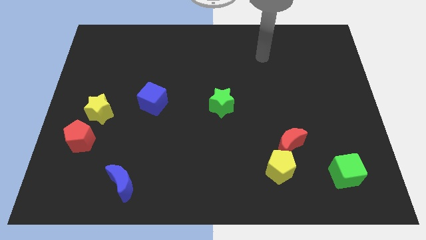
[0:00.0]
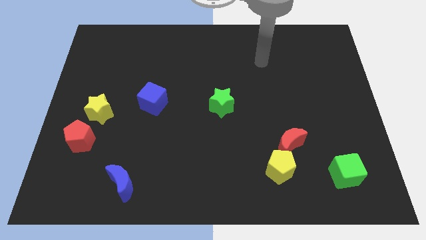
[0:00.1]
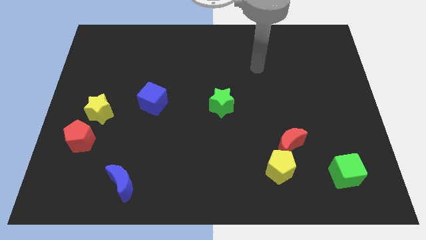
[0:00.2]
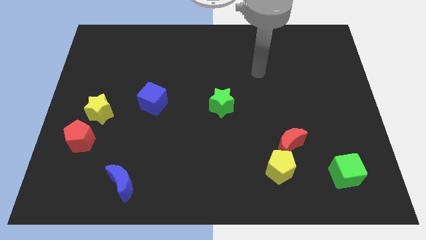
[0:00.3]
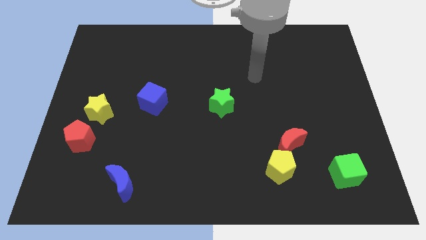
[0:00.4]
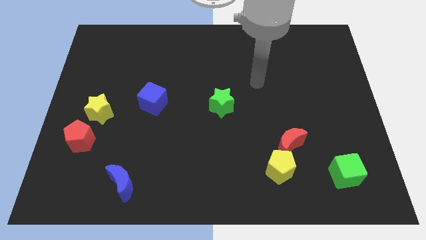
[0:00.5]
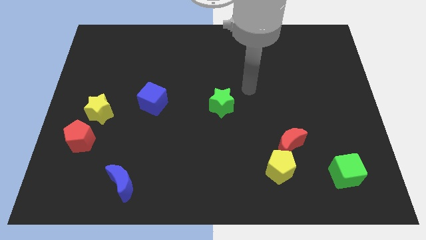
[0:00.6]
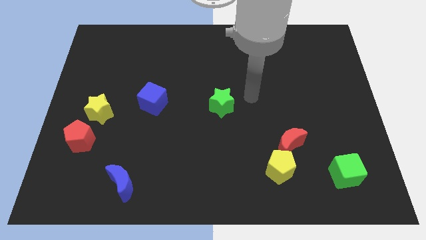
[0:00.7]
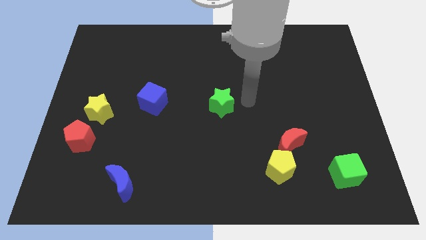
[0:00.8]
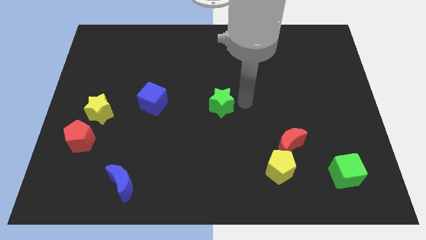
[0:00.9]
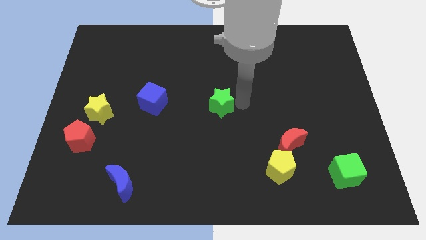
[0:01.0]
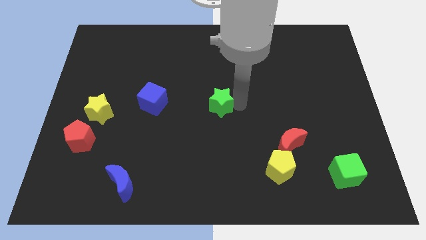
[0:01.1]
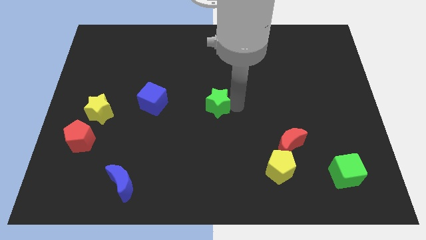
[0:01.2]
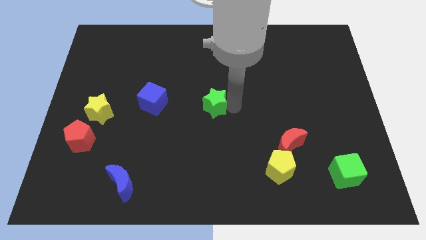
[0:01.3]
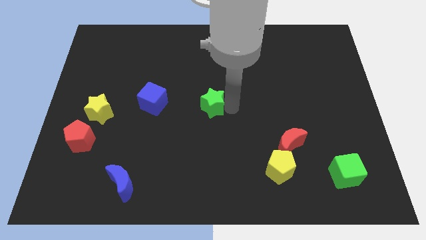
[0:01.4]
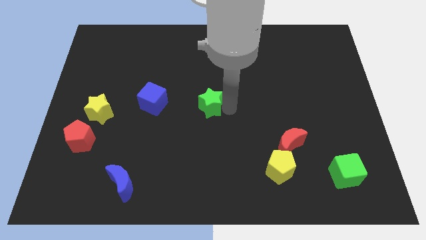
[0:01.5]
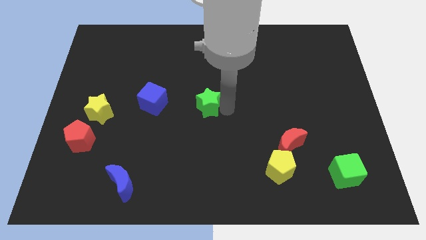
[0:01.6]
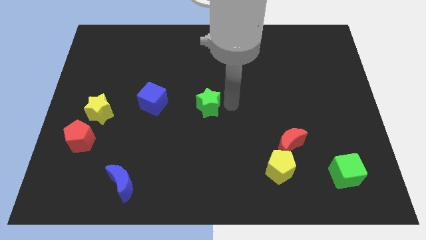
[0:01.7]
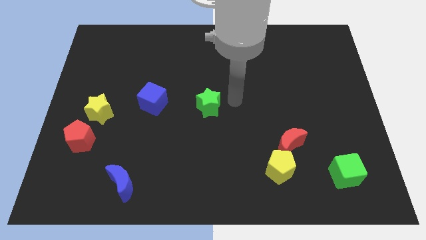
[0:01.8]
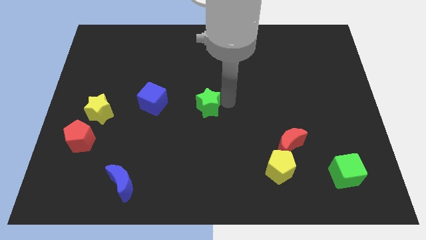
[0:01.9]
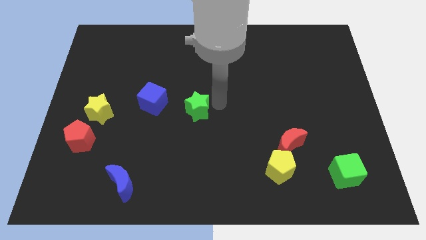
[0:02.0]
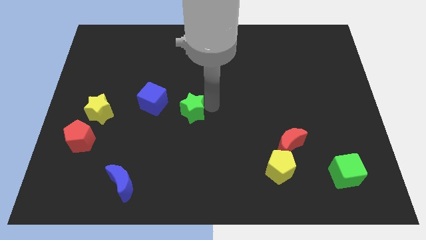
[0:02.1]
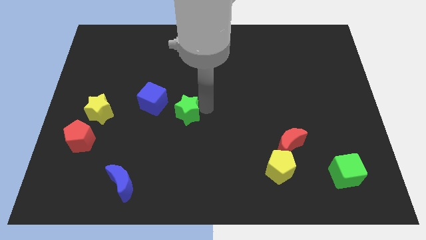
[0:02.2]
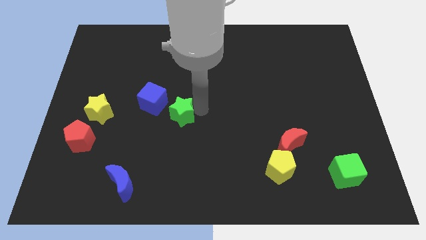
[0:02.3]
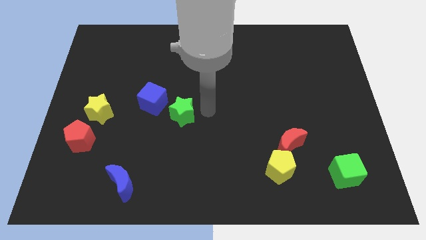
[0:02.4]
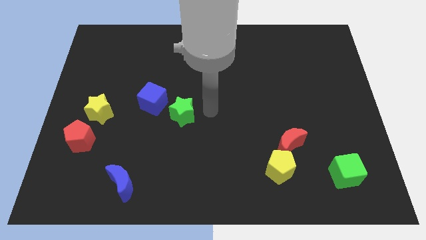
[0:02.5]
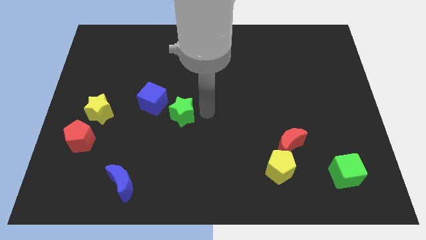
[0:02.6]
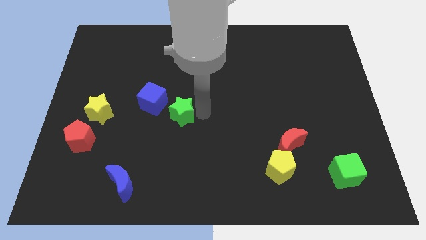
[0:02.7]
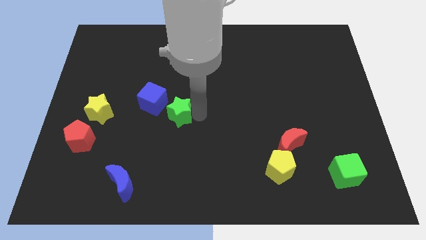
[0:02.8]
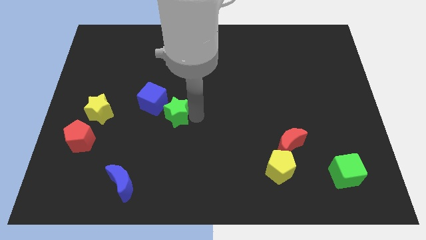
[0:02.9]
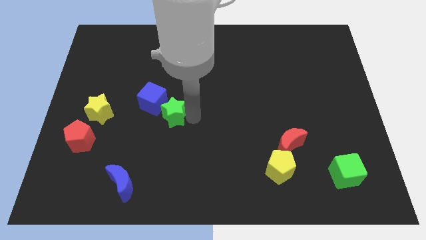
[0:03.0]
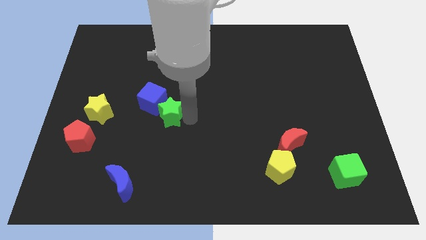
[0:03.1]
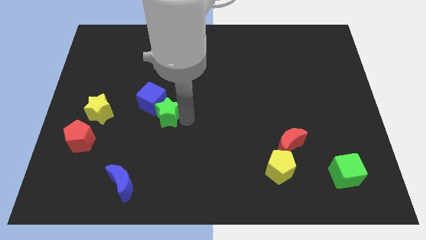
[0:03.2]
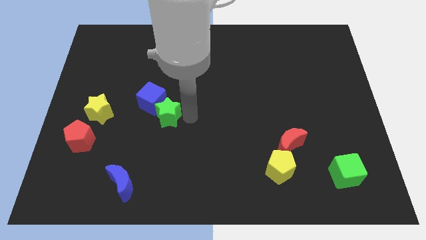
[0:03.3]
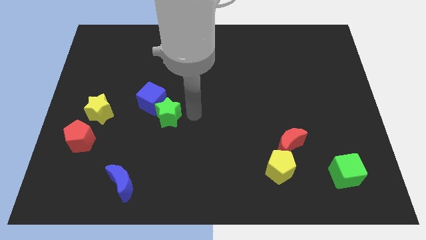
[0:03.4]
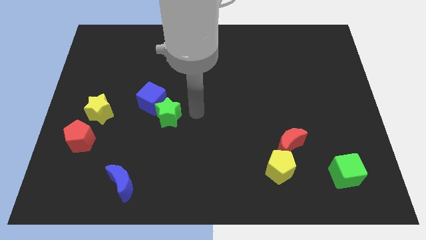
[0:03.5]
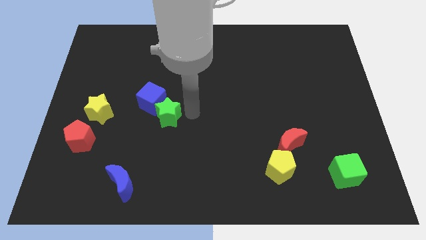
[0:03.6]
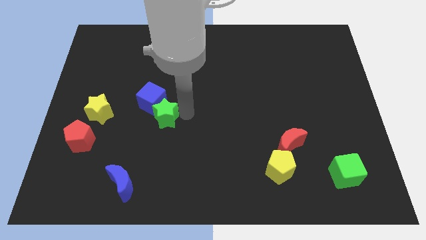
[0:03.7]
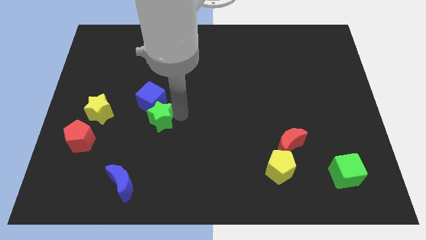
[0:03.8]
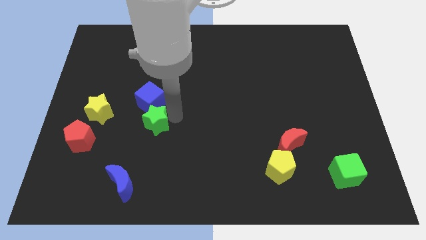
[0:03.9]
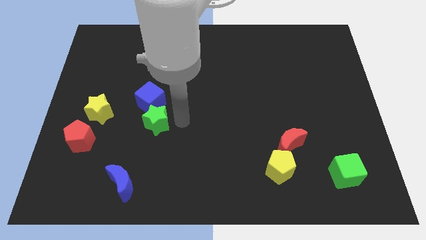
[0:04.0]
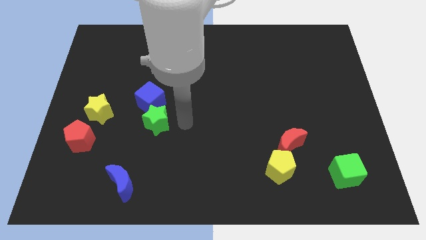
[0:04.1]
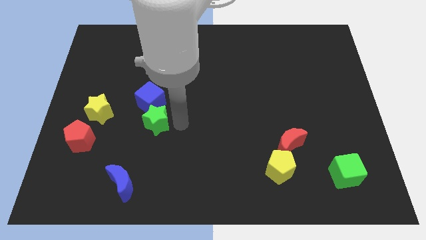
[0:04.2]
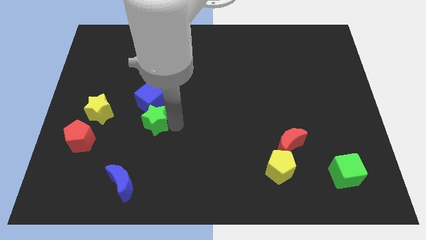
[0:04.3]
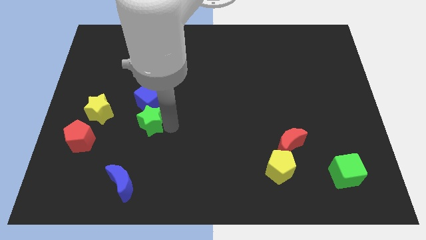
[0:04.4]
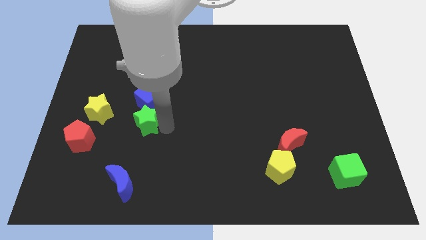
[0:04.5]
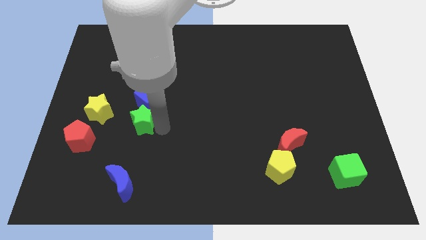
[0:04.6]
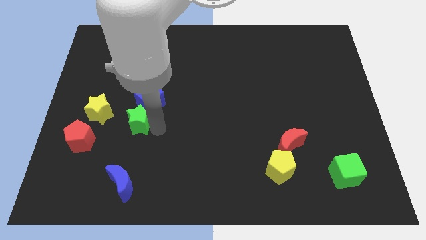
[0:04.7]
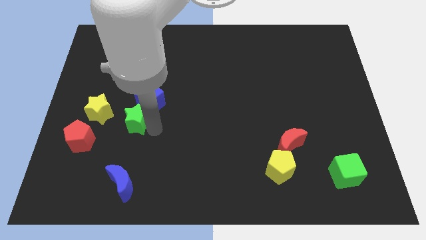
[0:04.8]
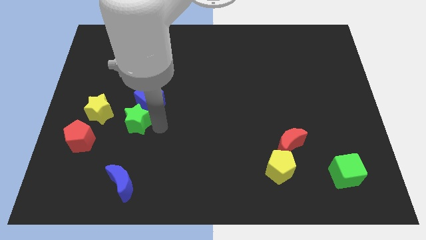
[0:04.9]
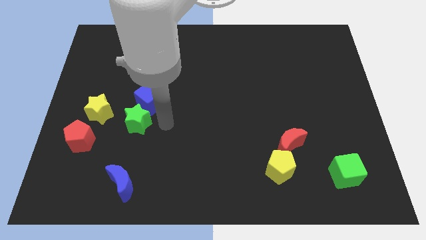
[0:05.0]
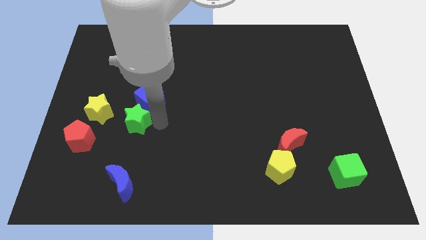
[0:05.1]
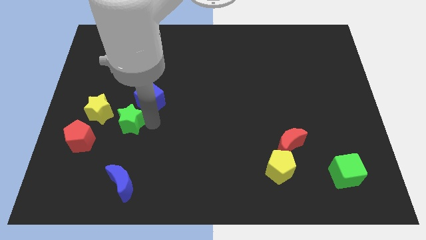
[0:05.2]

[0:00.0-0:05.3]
move the green star to the top right of the red pentagon

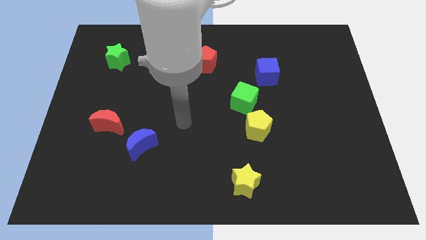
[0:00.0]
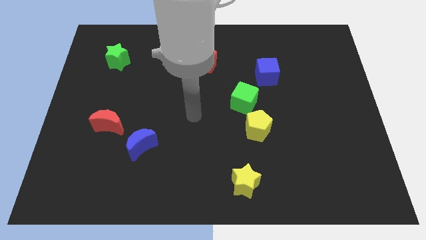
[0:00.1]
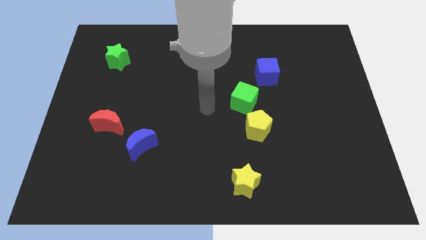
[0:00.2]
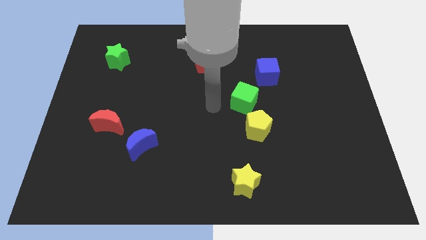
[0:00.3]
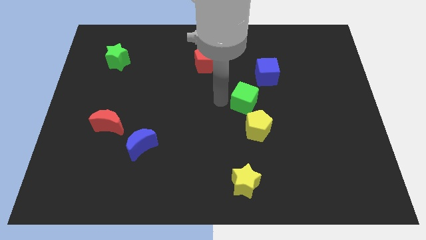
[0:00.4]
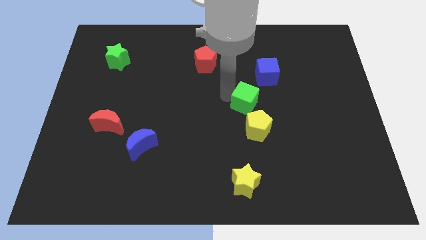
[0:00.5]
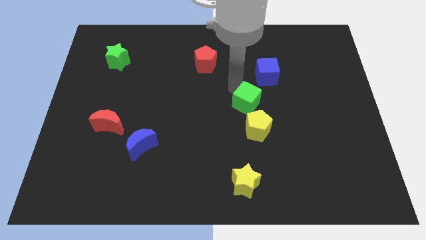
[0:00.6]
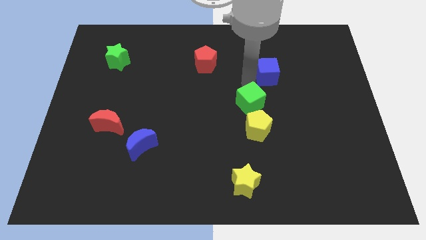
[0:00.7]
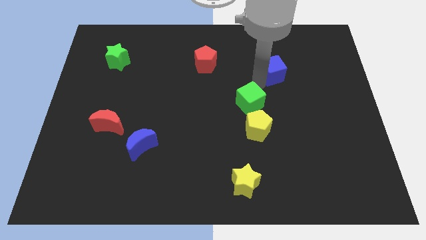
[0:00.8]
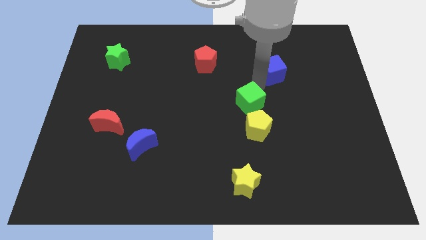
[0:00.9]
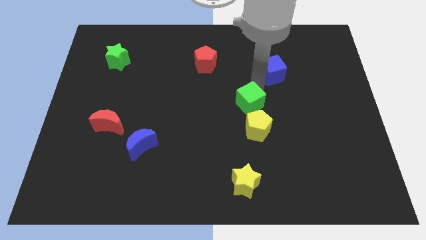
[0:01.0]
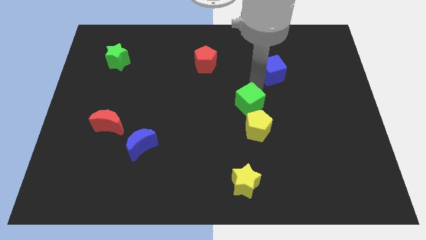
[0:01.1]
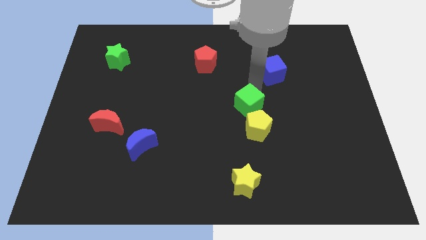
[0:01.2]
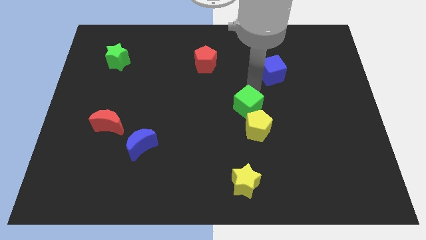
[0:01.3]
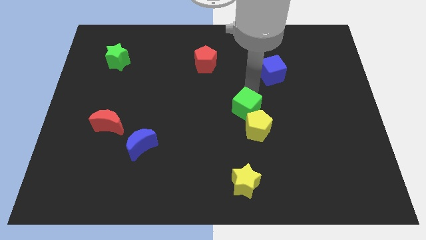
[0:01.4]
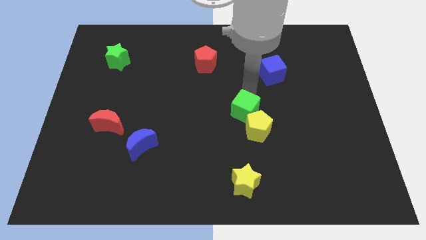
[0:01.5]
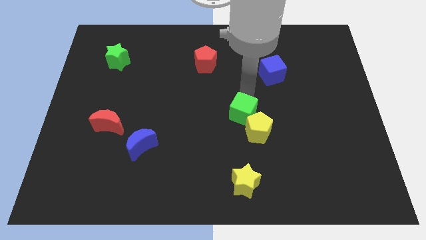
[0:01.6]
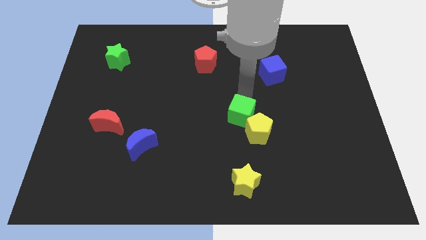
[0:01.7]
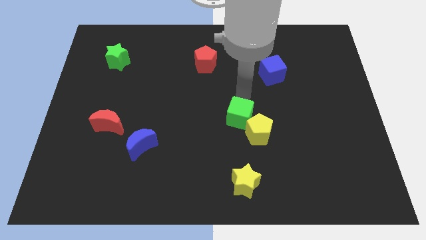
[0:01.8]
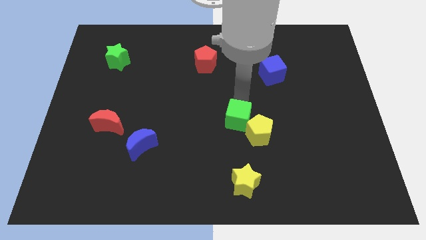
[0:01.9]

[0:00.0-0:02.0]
move the green cube above the yellow star

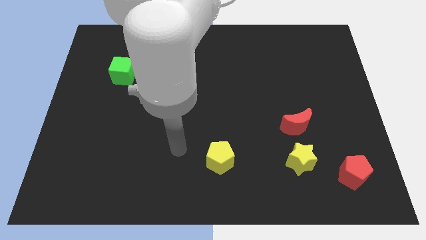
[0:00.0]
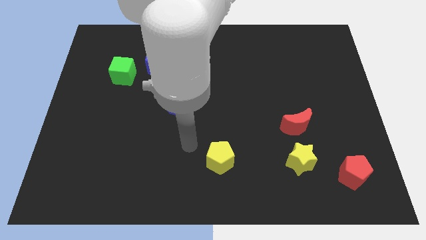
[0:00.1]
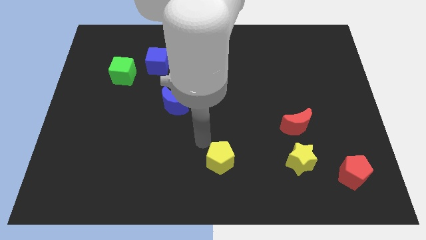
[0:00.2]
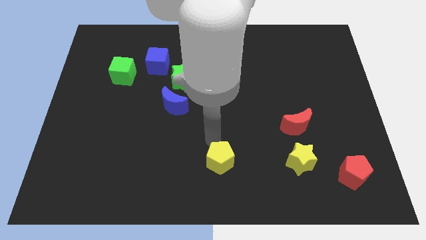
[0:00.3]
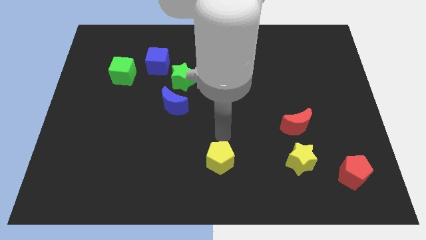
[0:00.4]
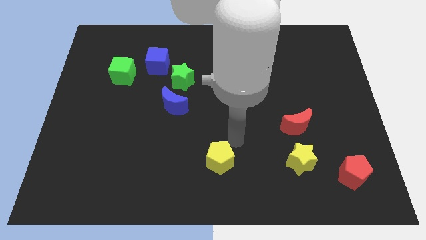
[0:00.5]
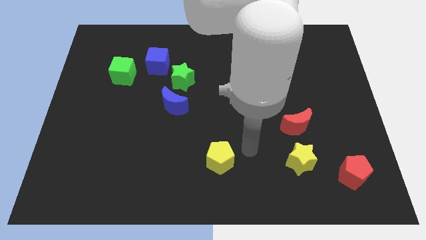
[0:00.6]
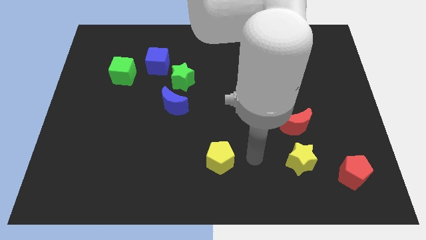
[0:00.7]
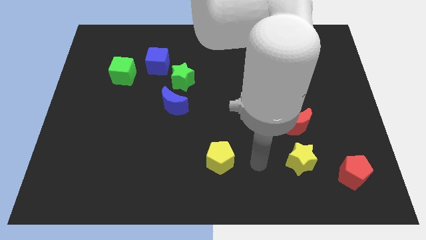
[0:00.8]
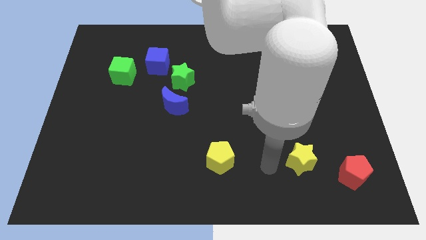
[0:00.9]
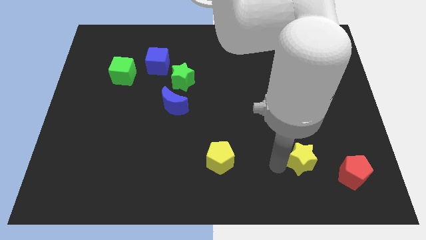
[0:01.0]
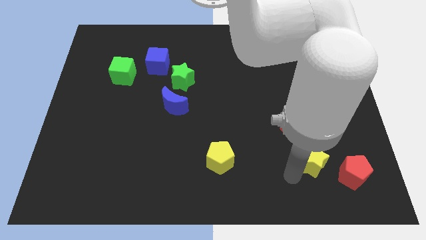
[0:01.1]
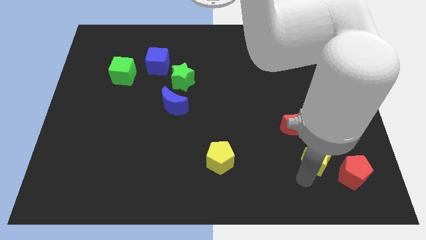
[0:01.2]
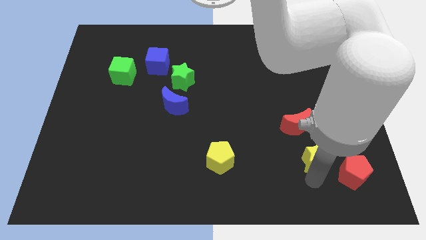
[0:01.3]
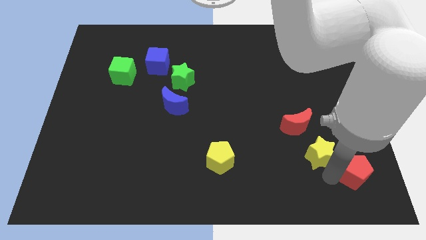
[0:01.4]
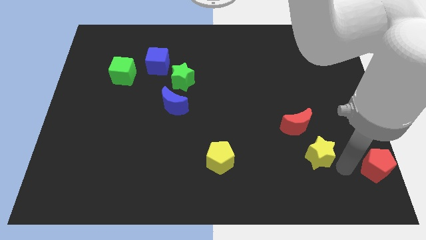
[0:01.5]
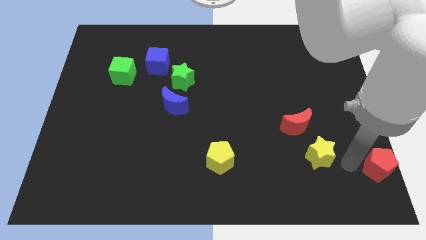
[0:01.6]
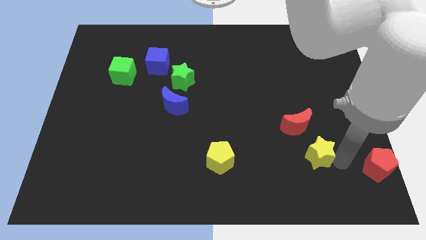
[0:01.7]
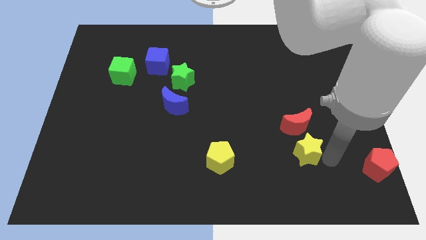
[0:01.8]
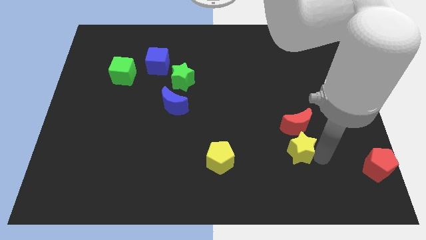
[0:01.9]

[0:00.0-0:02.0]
slide the yellow star to the bottom left side of the red moon
